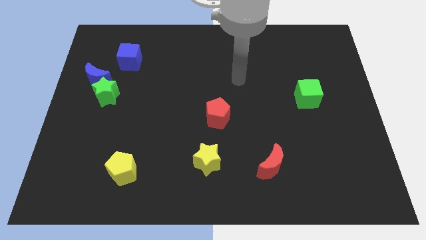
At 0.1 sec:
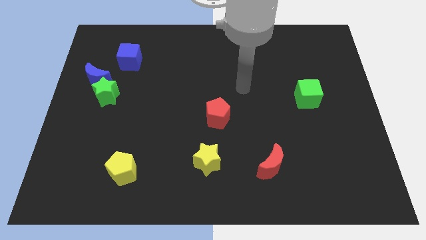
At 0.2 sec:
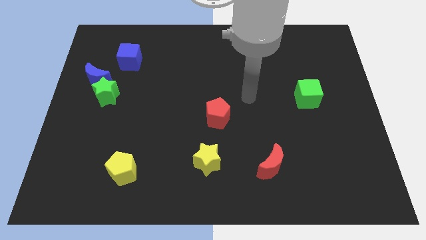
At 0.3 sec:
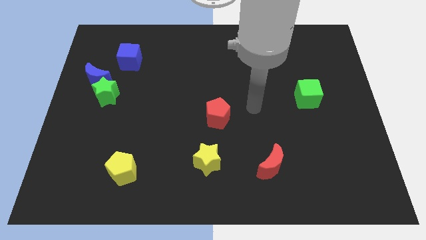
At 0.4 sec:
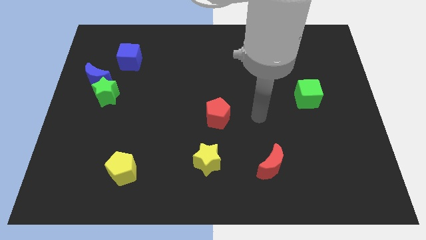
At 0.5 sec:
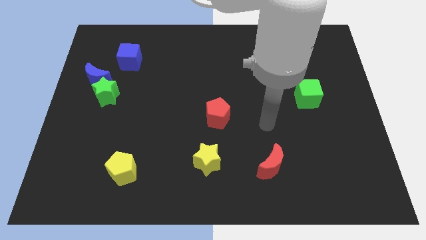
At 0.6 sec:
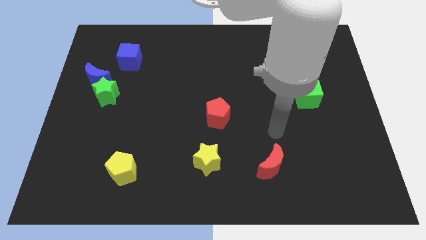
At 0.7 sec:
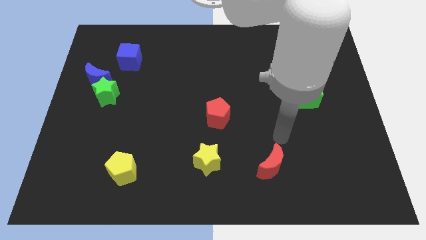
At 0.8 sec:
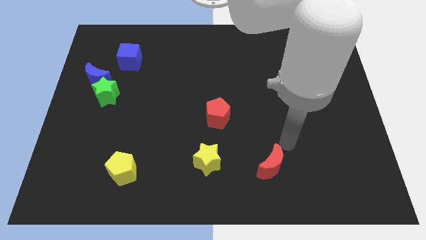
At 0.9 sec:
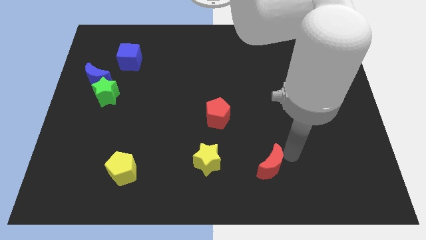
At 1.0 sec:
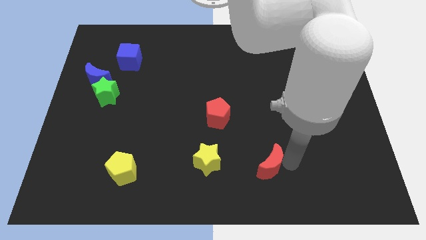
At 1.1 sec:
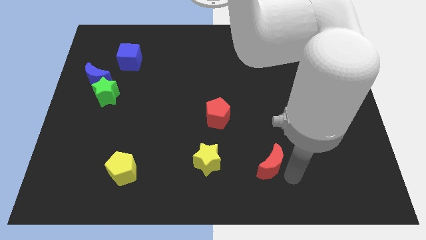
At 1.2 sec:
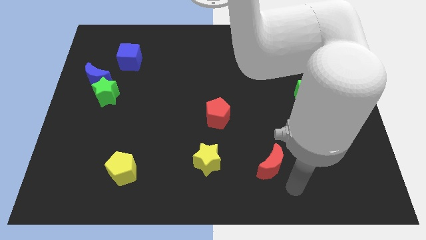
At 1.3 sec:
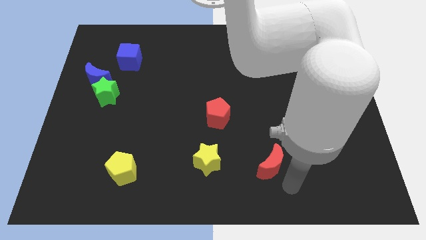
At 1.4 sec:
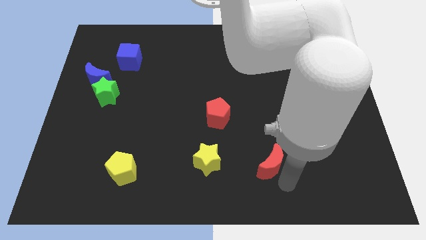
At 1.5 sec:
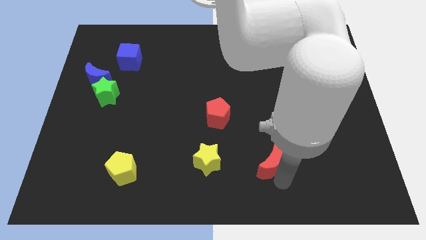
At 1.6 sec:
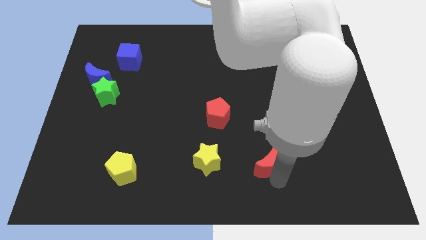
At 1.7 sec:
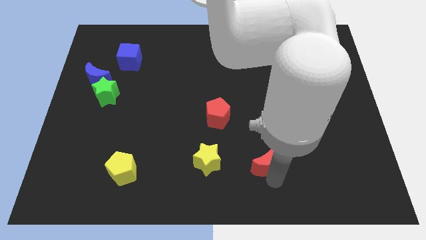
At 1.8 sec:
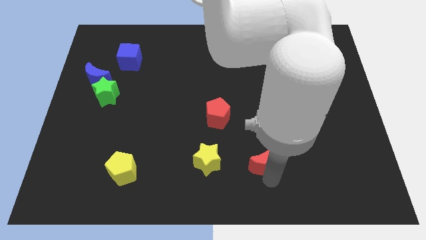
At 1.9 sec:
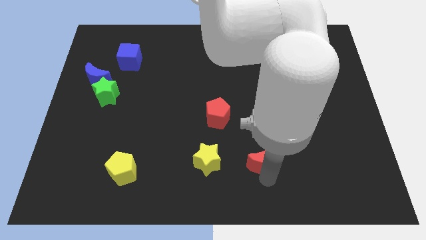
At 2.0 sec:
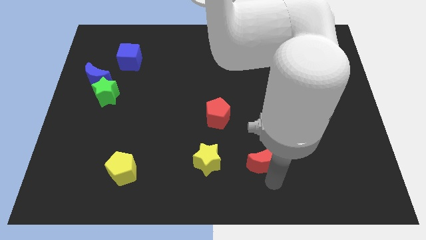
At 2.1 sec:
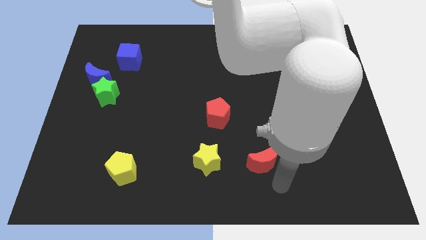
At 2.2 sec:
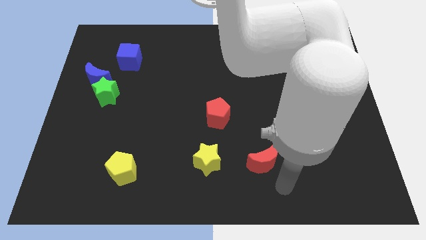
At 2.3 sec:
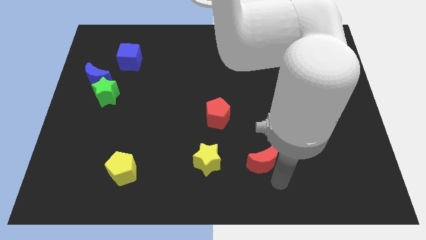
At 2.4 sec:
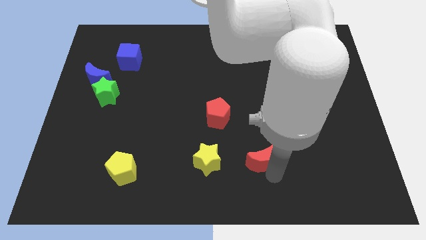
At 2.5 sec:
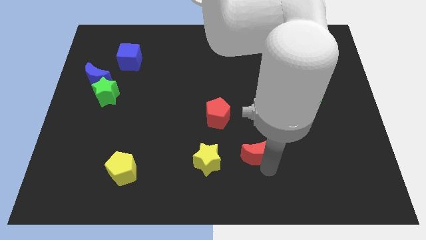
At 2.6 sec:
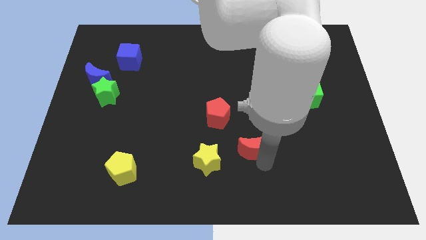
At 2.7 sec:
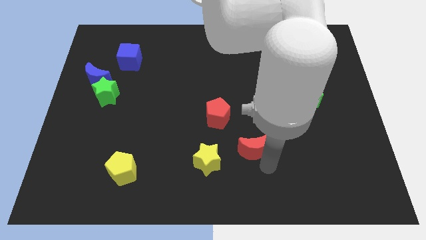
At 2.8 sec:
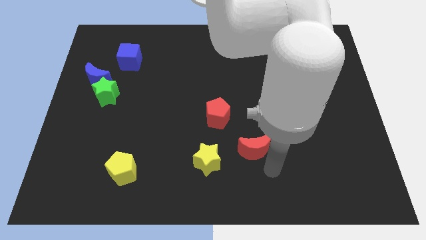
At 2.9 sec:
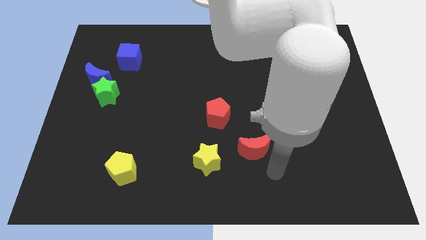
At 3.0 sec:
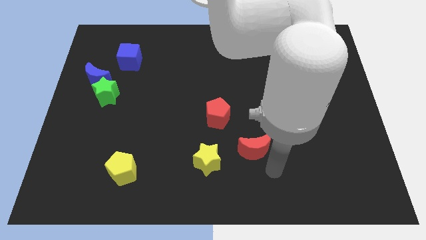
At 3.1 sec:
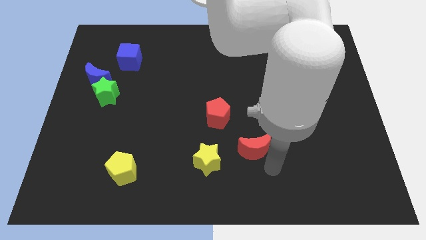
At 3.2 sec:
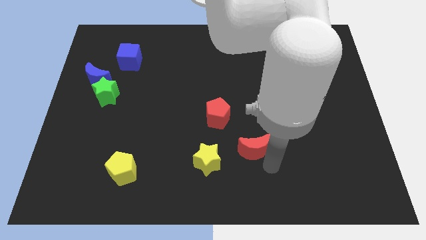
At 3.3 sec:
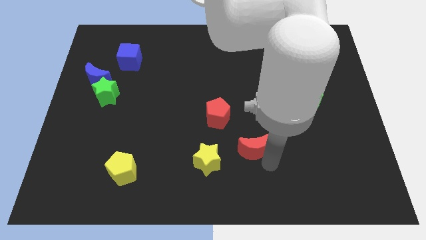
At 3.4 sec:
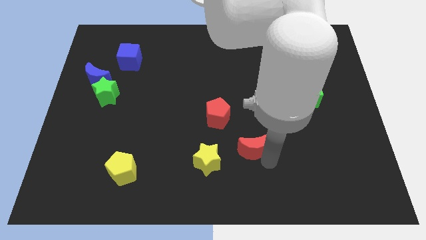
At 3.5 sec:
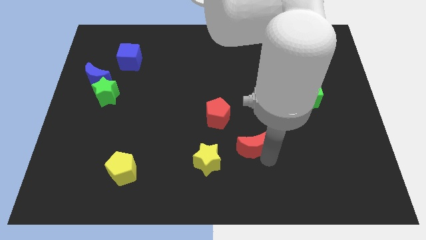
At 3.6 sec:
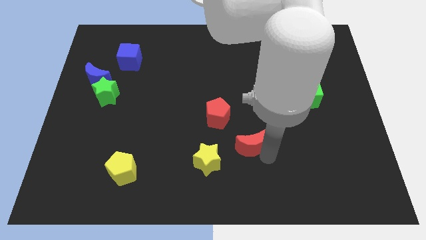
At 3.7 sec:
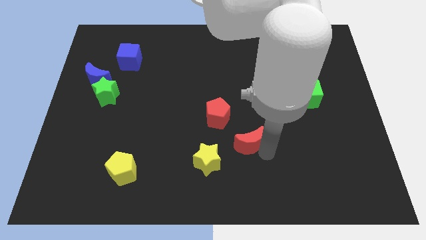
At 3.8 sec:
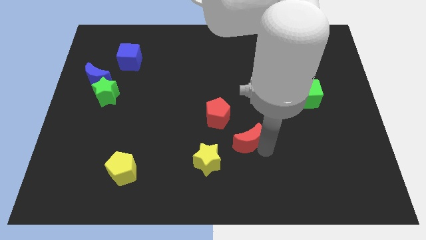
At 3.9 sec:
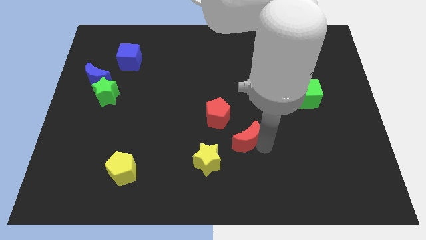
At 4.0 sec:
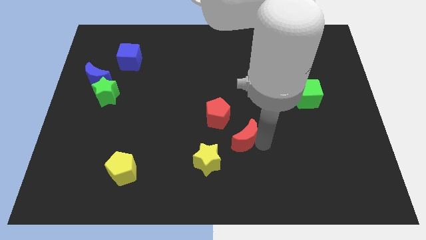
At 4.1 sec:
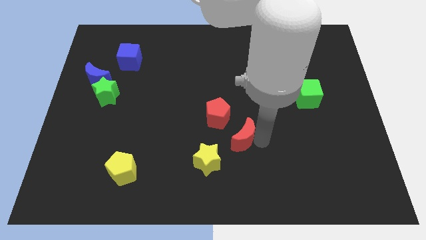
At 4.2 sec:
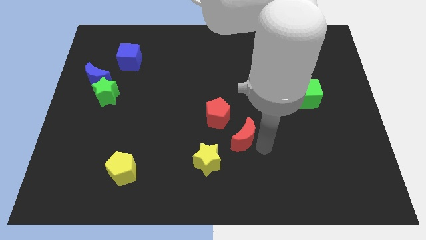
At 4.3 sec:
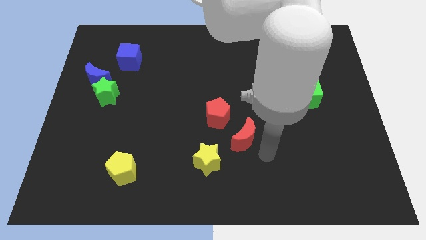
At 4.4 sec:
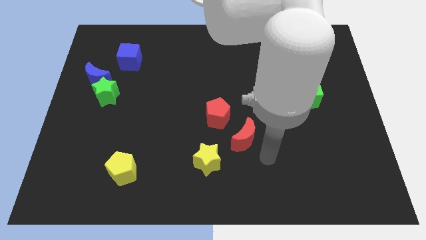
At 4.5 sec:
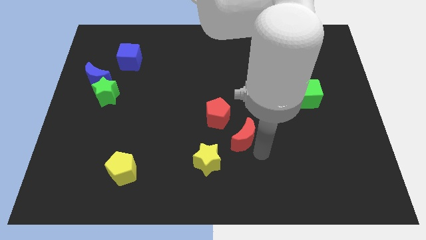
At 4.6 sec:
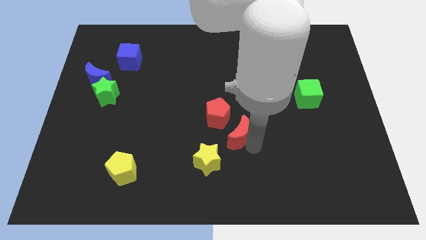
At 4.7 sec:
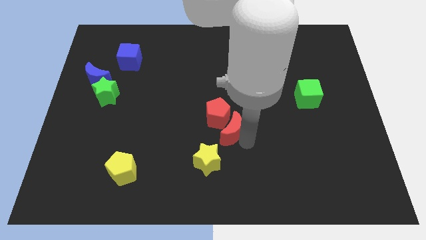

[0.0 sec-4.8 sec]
slide the red moon close to the red pentagon

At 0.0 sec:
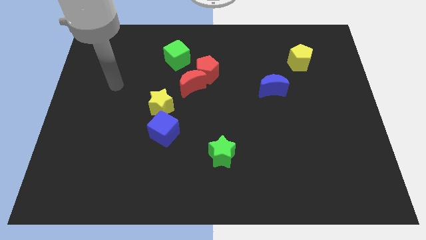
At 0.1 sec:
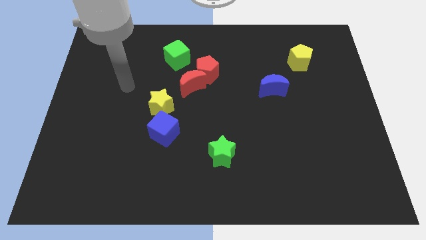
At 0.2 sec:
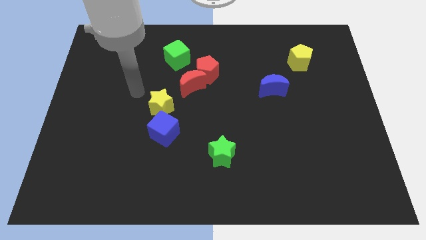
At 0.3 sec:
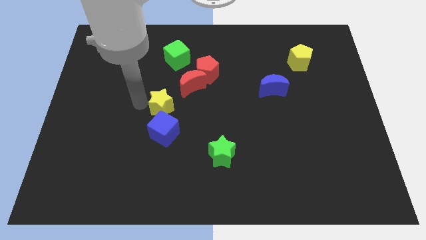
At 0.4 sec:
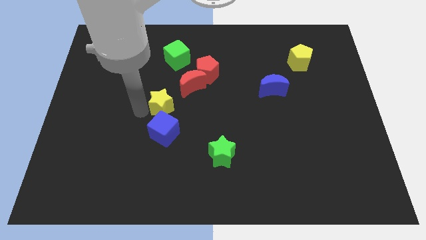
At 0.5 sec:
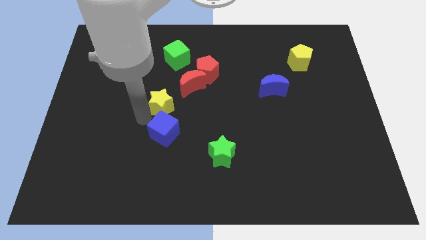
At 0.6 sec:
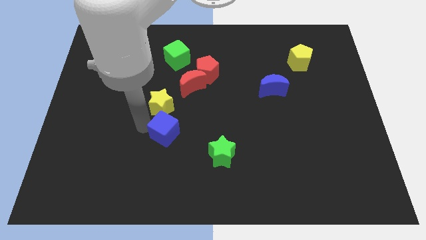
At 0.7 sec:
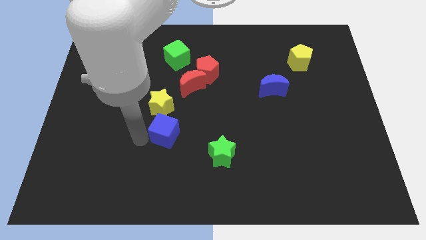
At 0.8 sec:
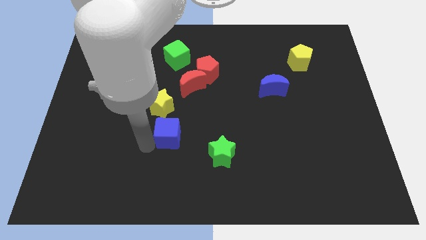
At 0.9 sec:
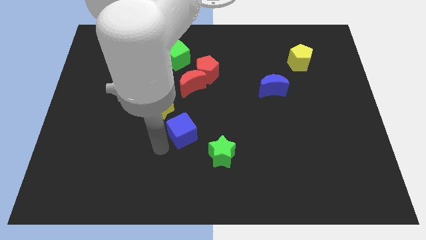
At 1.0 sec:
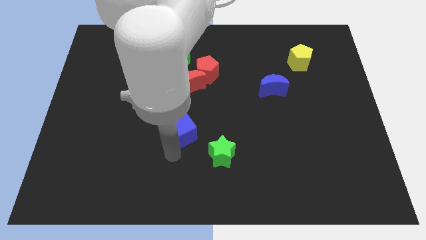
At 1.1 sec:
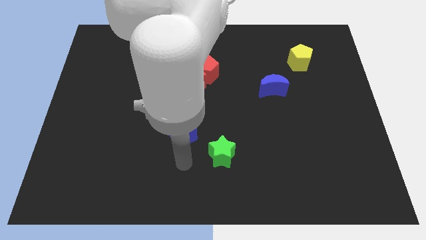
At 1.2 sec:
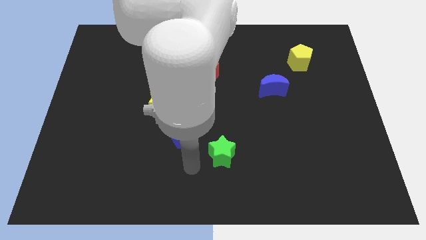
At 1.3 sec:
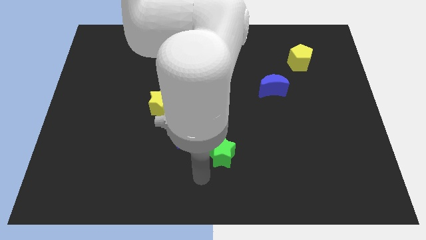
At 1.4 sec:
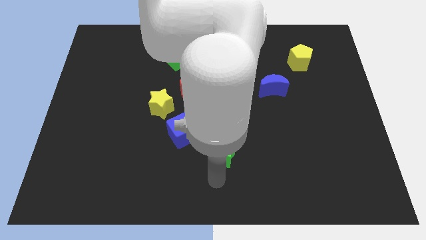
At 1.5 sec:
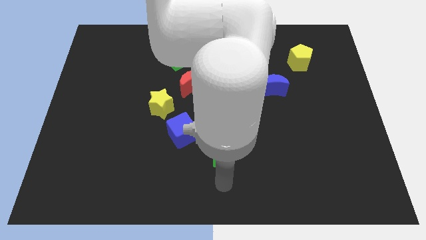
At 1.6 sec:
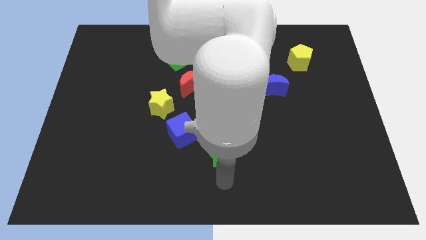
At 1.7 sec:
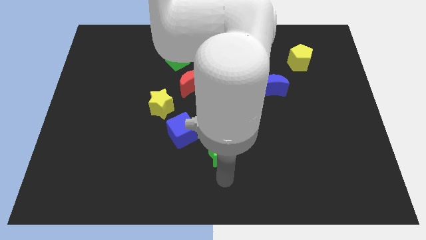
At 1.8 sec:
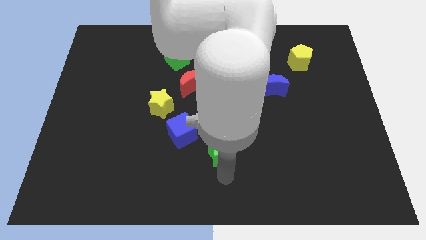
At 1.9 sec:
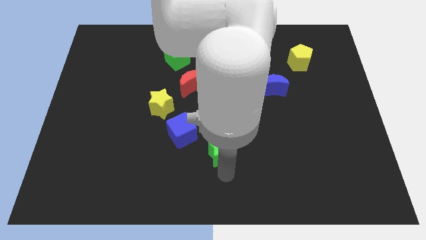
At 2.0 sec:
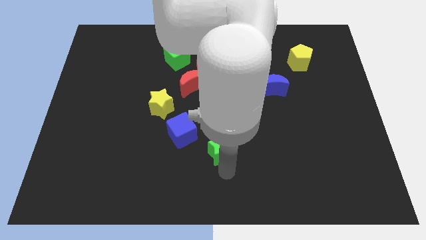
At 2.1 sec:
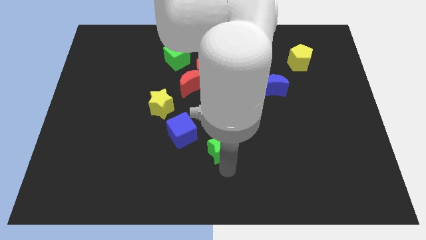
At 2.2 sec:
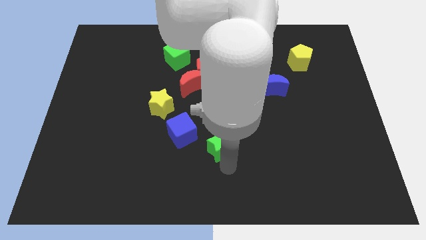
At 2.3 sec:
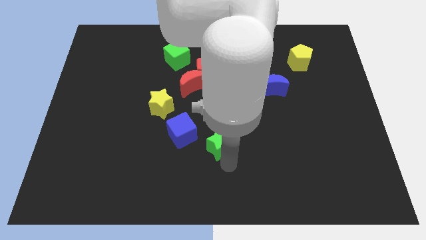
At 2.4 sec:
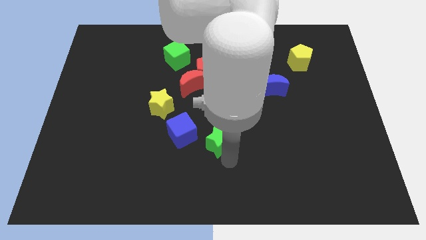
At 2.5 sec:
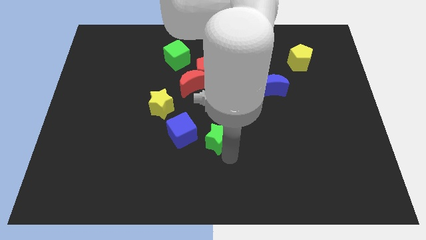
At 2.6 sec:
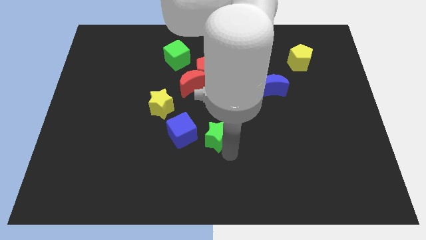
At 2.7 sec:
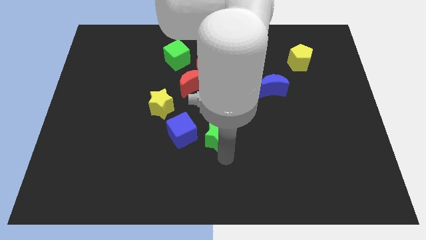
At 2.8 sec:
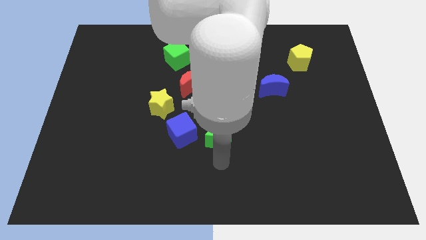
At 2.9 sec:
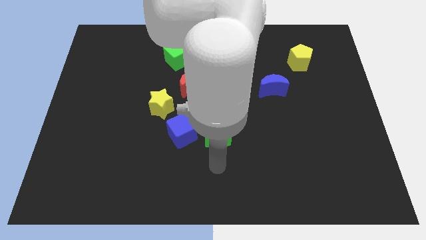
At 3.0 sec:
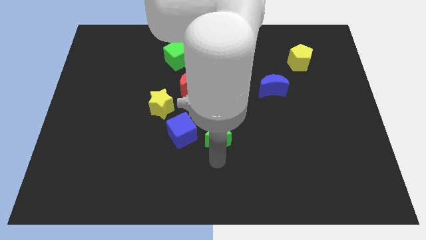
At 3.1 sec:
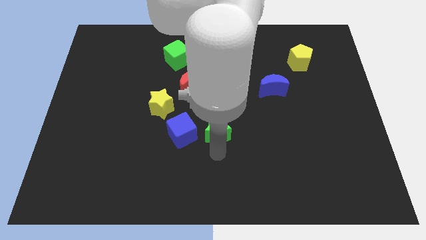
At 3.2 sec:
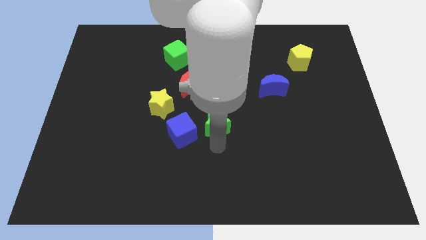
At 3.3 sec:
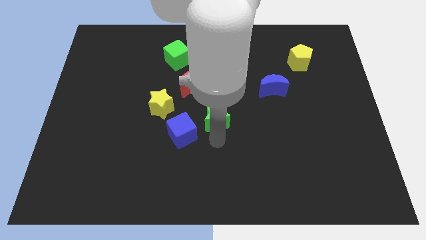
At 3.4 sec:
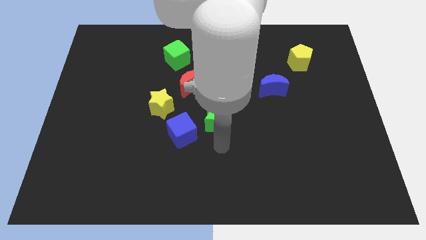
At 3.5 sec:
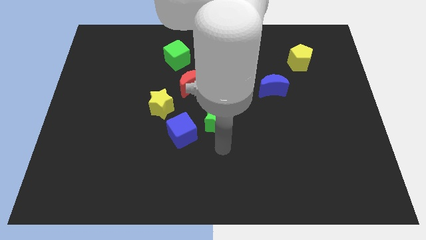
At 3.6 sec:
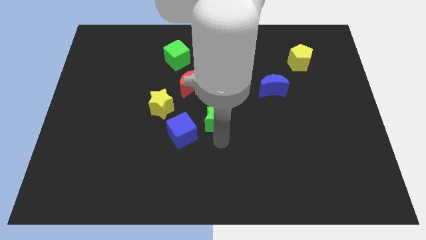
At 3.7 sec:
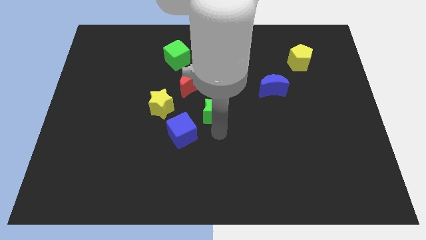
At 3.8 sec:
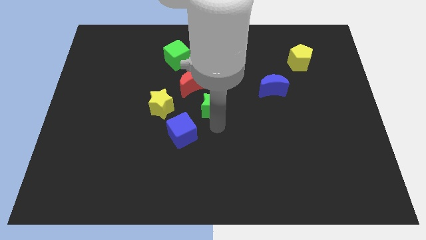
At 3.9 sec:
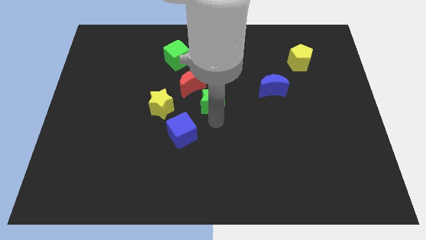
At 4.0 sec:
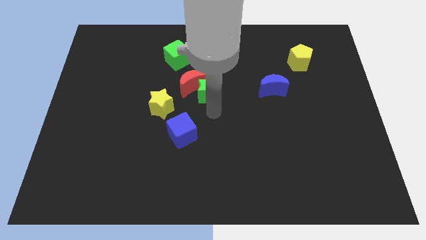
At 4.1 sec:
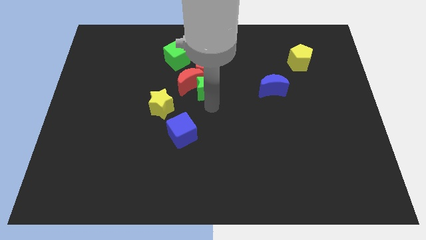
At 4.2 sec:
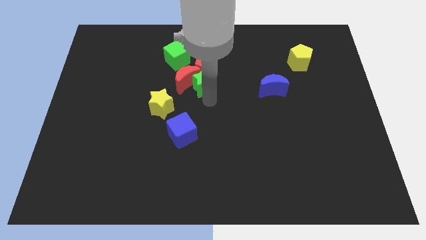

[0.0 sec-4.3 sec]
push the green star towards the red pentagon
